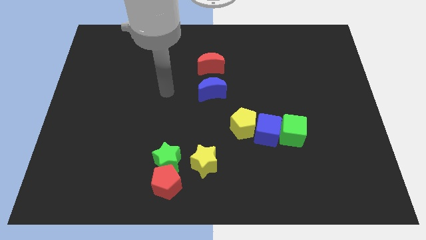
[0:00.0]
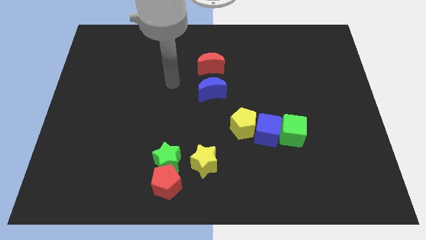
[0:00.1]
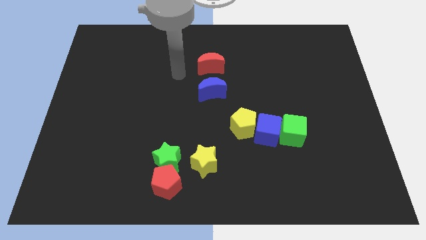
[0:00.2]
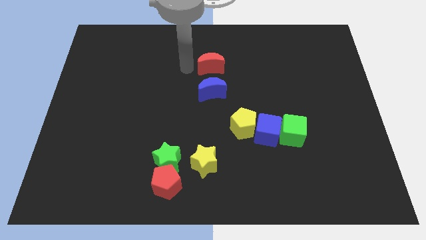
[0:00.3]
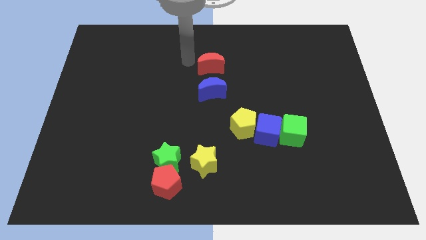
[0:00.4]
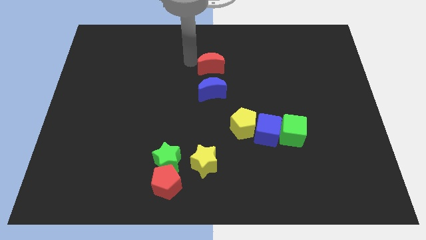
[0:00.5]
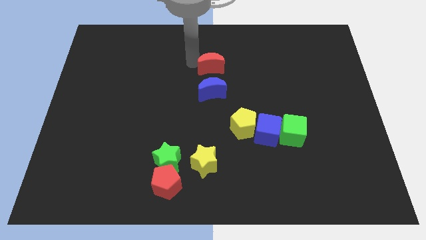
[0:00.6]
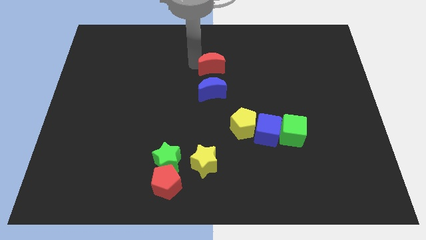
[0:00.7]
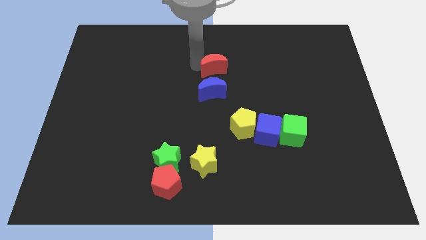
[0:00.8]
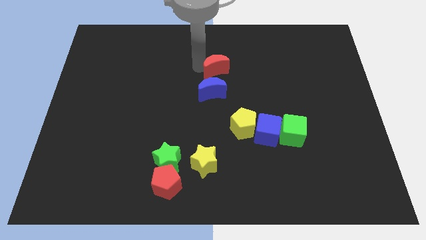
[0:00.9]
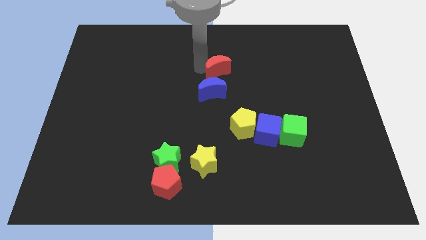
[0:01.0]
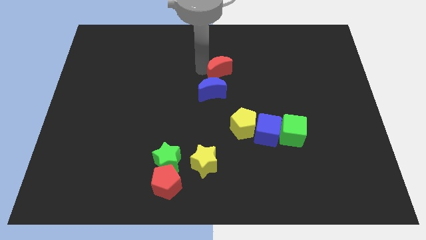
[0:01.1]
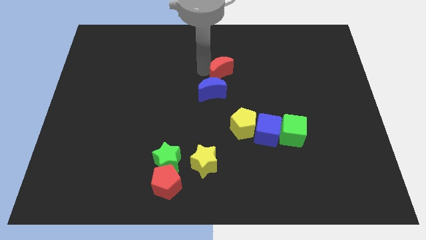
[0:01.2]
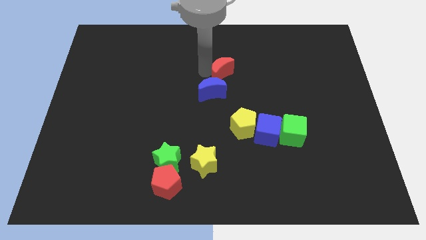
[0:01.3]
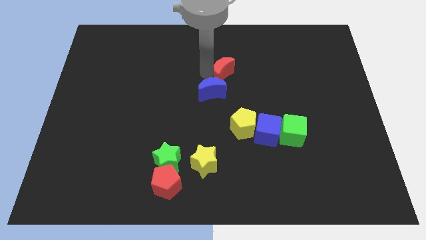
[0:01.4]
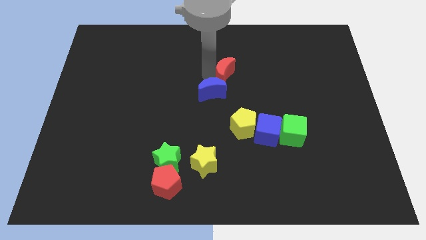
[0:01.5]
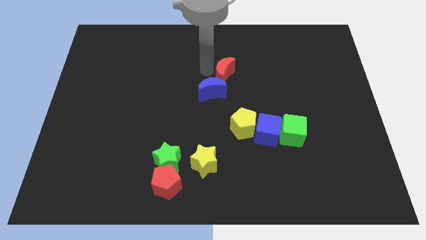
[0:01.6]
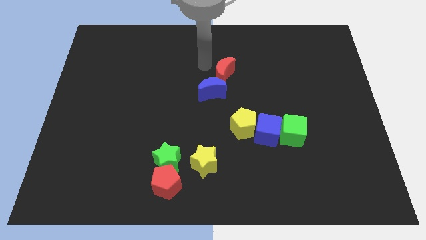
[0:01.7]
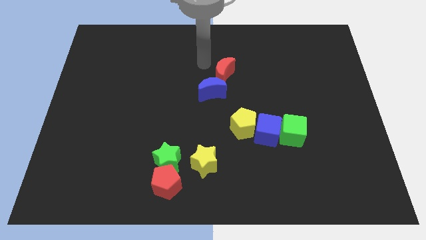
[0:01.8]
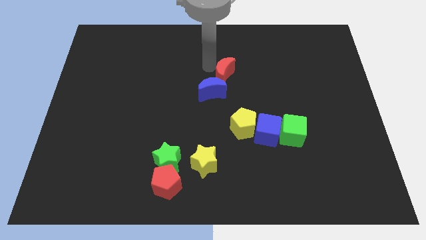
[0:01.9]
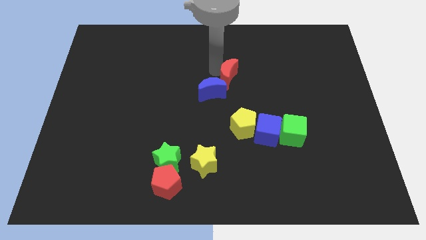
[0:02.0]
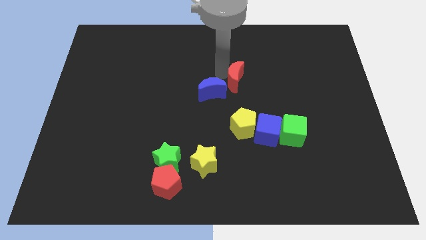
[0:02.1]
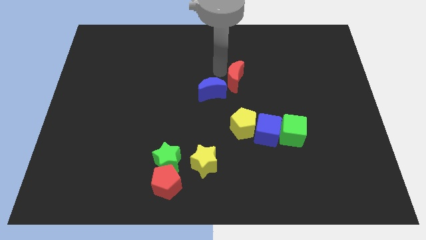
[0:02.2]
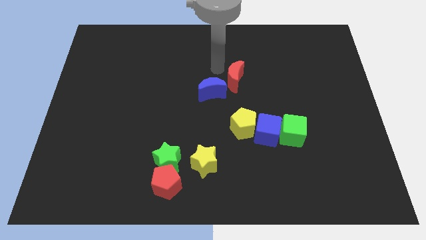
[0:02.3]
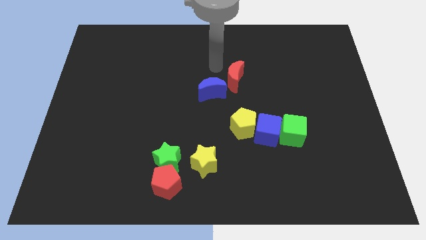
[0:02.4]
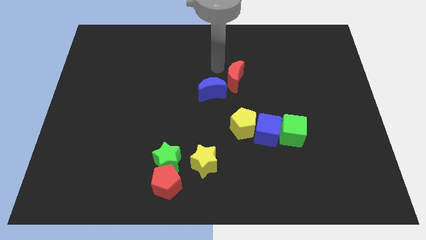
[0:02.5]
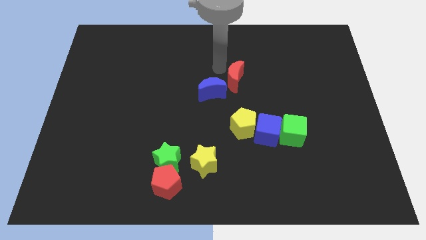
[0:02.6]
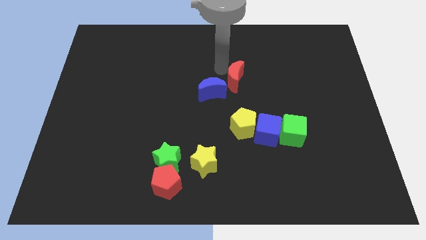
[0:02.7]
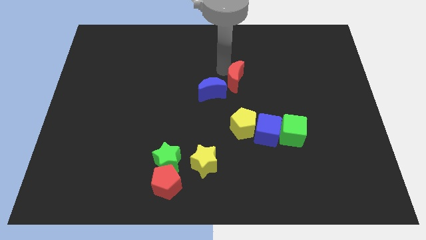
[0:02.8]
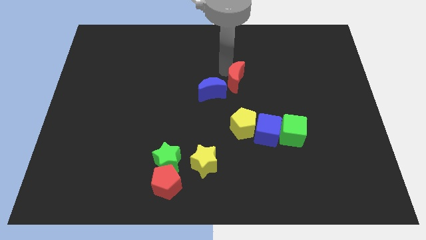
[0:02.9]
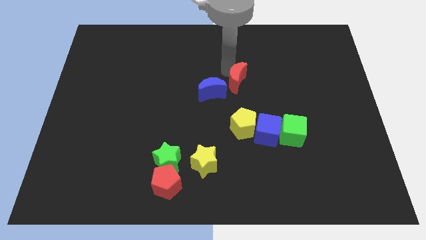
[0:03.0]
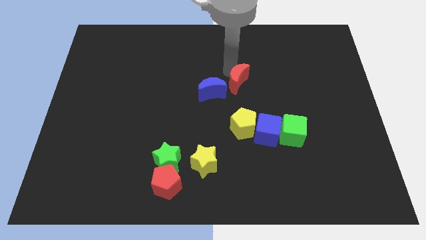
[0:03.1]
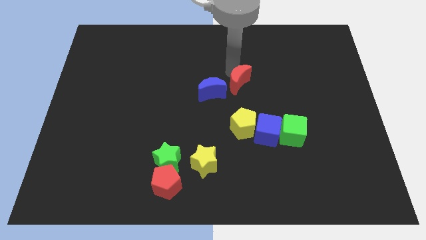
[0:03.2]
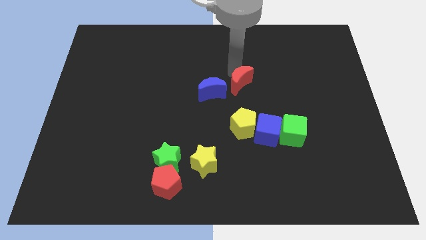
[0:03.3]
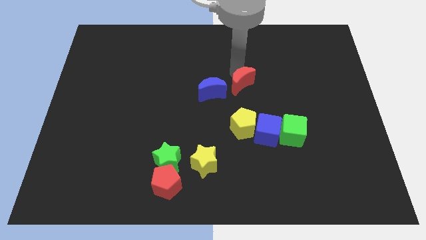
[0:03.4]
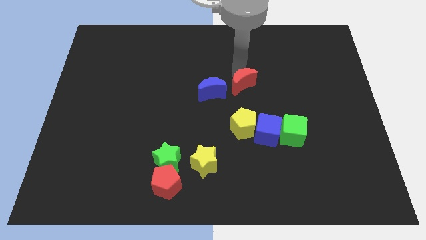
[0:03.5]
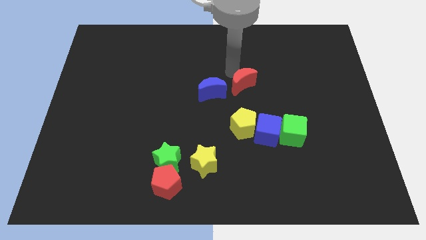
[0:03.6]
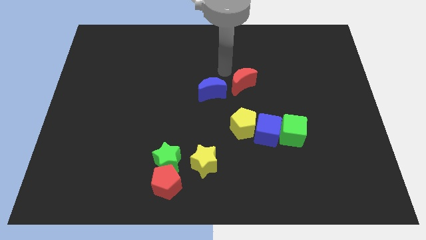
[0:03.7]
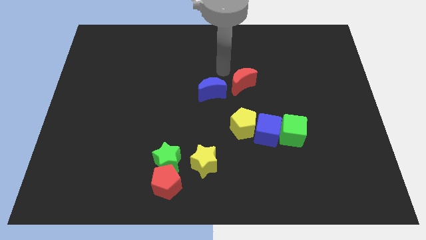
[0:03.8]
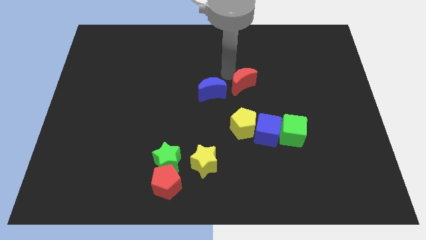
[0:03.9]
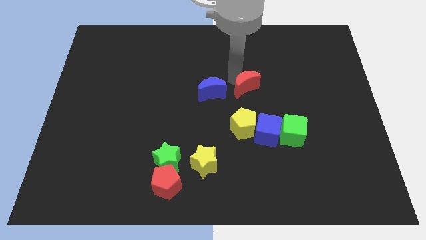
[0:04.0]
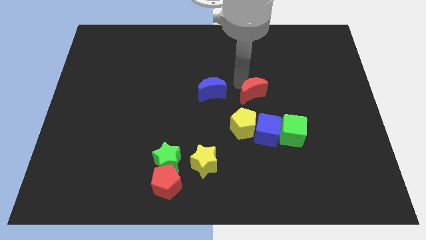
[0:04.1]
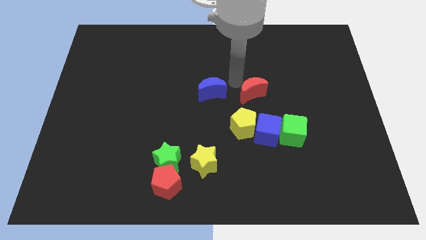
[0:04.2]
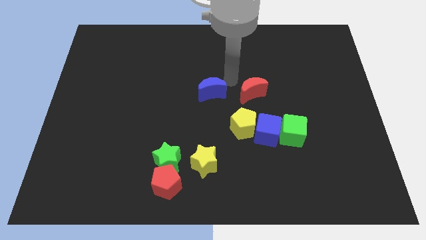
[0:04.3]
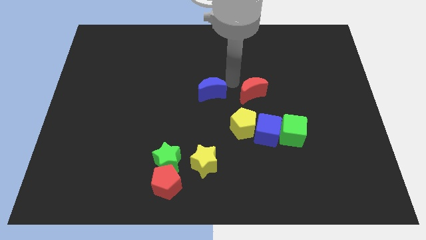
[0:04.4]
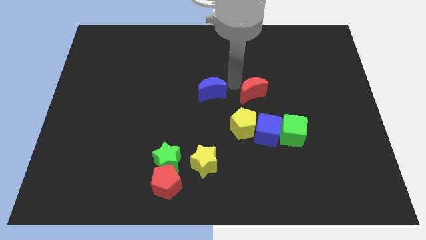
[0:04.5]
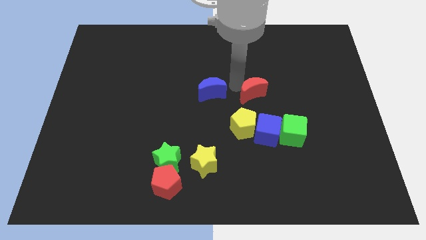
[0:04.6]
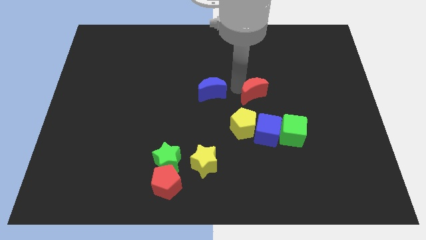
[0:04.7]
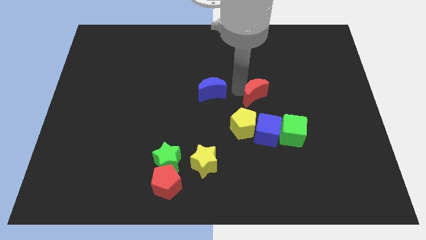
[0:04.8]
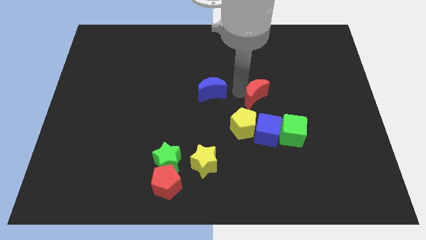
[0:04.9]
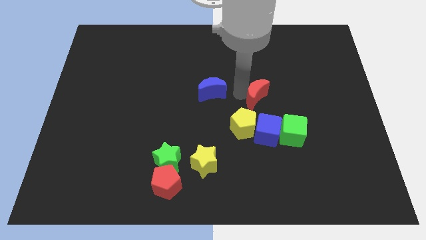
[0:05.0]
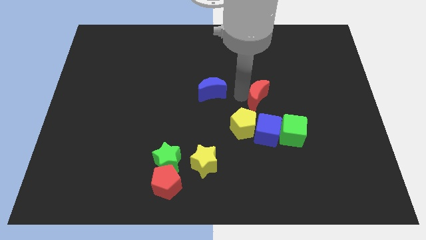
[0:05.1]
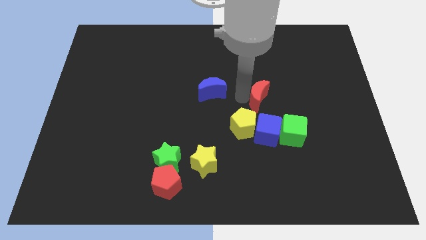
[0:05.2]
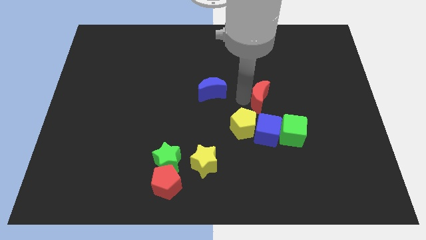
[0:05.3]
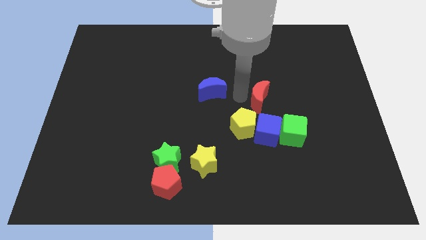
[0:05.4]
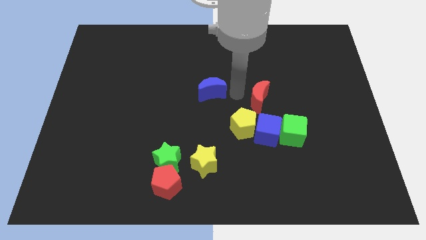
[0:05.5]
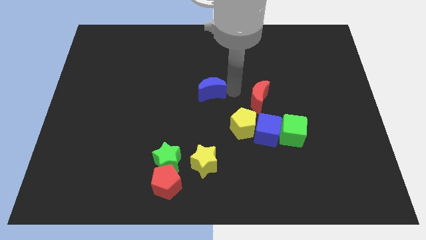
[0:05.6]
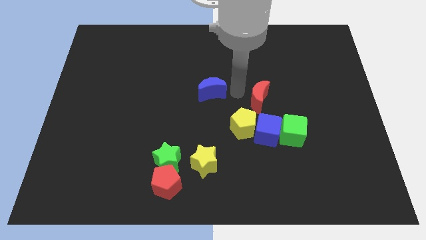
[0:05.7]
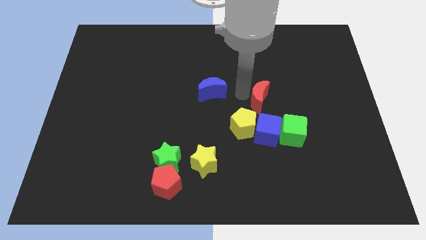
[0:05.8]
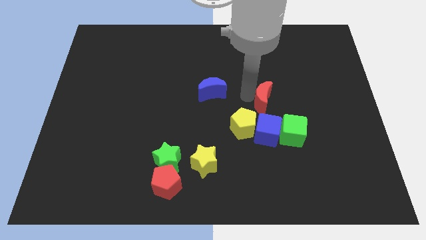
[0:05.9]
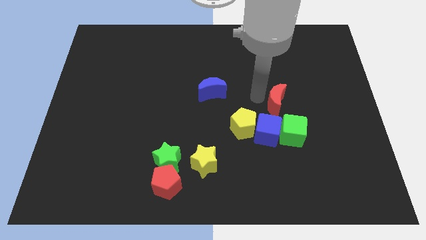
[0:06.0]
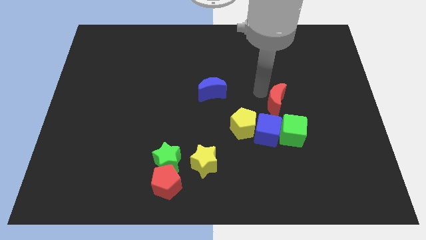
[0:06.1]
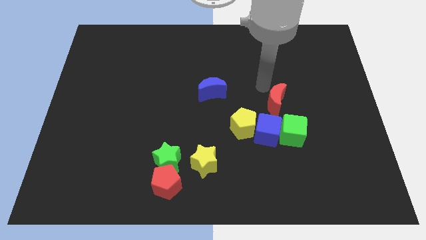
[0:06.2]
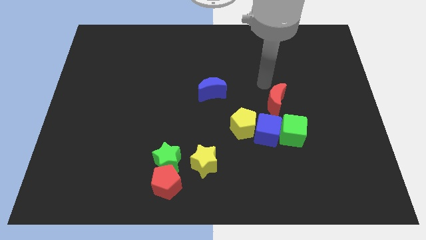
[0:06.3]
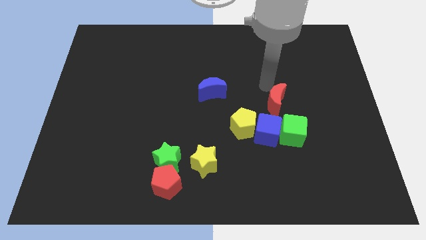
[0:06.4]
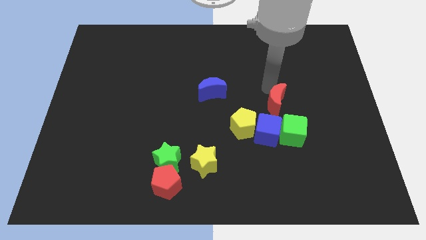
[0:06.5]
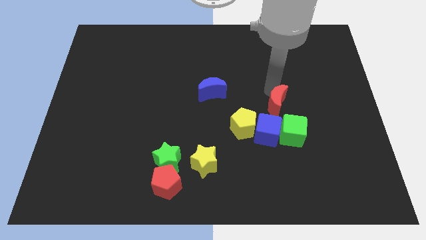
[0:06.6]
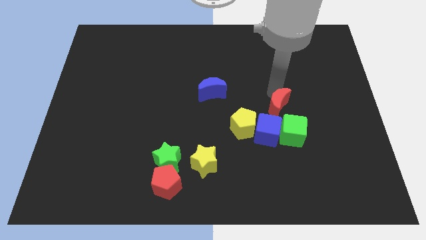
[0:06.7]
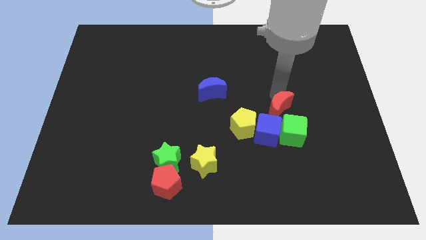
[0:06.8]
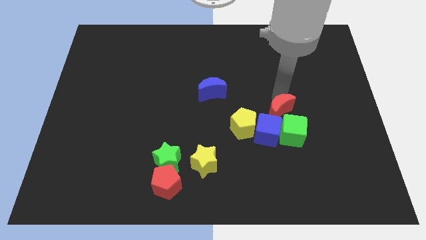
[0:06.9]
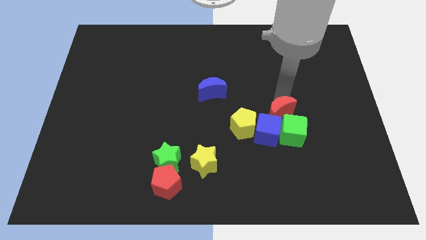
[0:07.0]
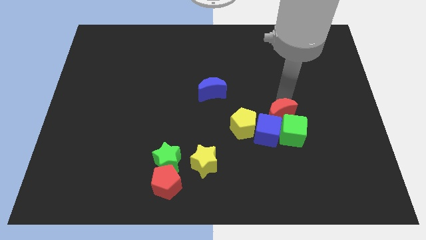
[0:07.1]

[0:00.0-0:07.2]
push the red moon to the green cube
